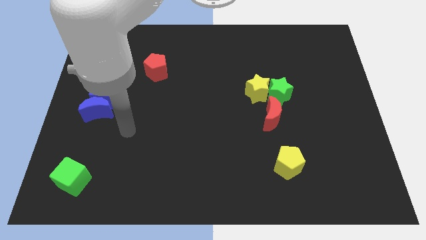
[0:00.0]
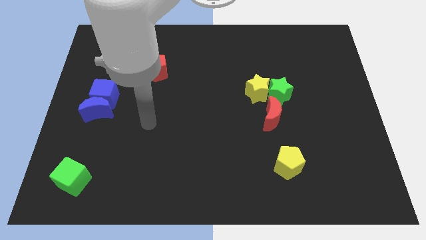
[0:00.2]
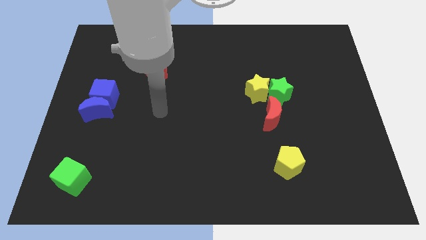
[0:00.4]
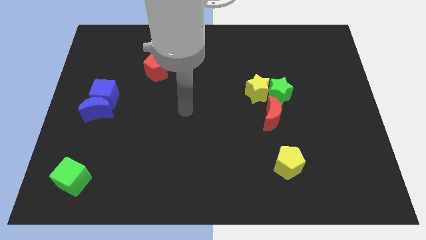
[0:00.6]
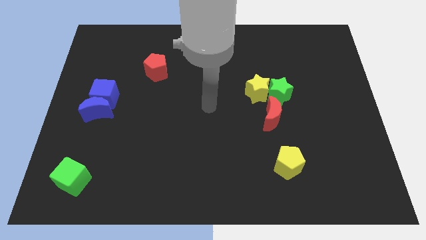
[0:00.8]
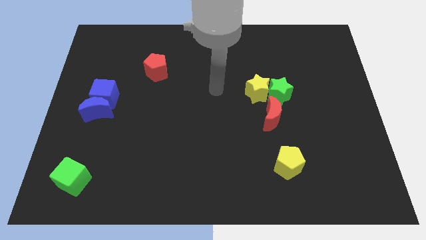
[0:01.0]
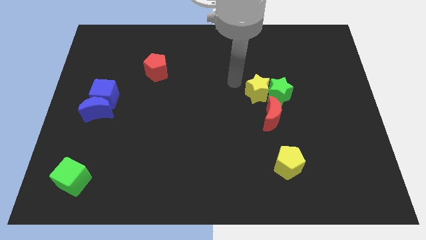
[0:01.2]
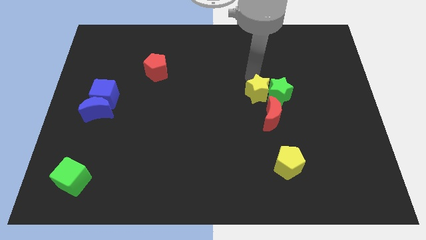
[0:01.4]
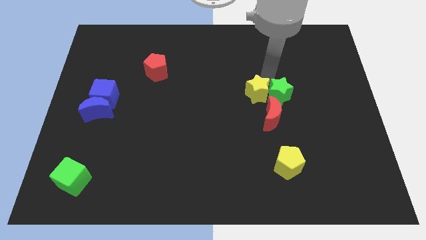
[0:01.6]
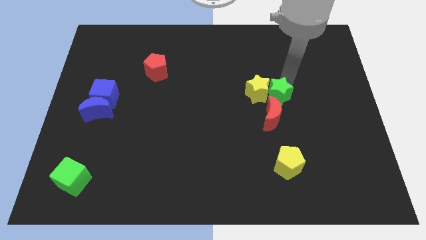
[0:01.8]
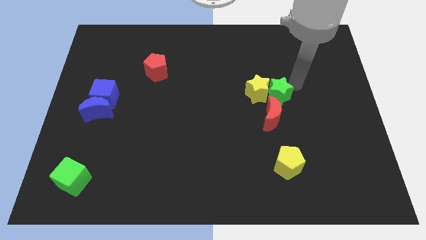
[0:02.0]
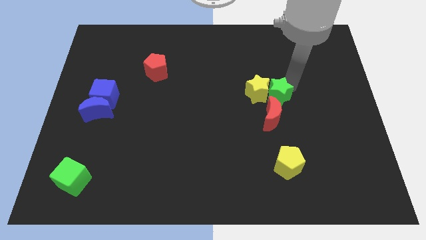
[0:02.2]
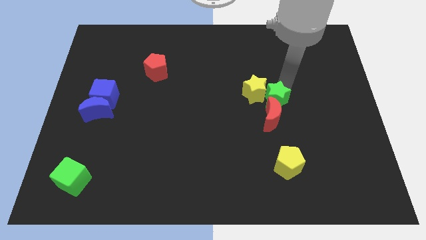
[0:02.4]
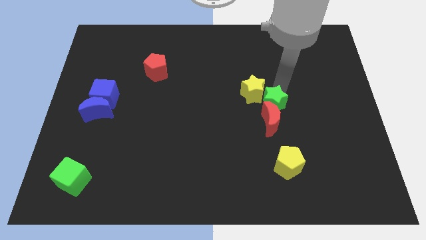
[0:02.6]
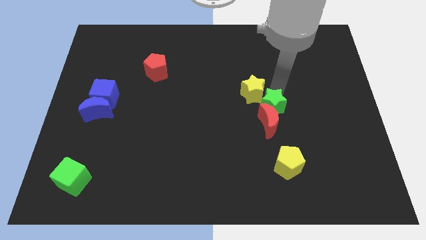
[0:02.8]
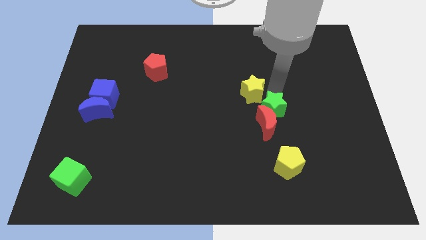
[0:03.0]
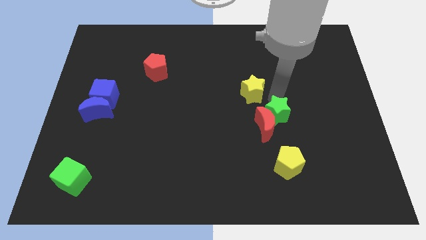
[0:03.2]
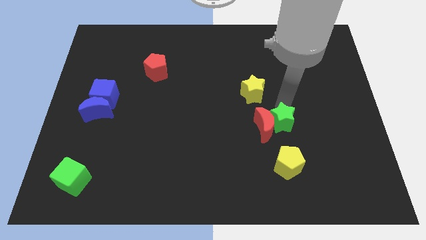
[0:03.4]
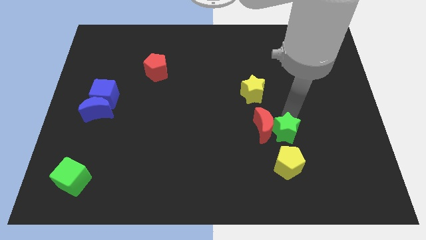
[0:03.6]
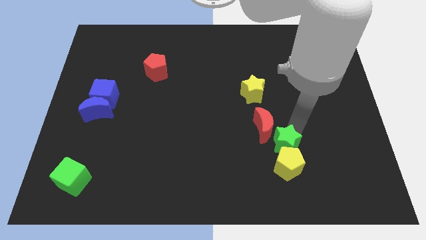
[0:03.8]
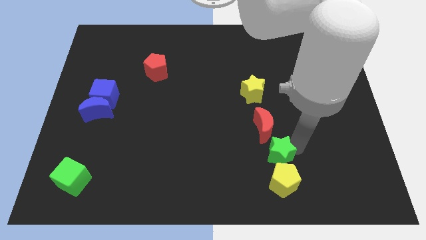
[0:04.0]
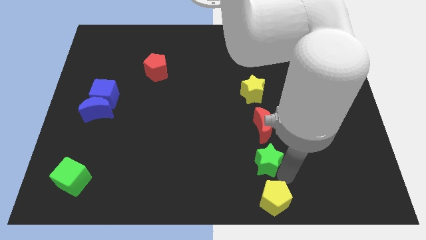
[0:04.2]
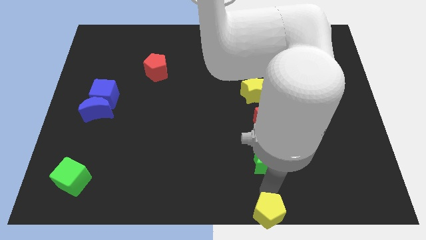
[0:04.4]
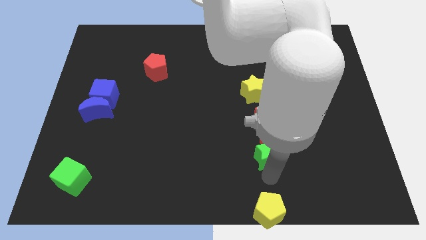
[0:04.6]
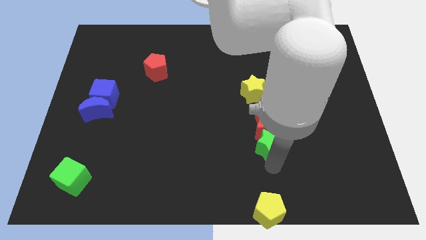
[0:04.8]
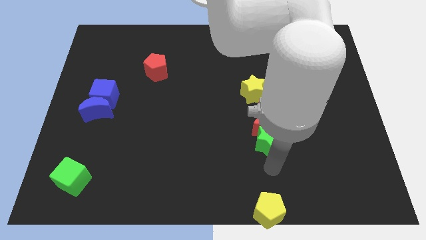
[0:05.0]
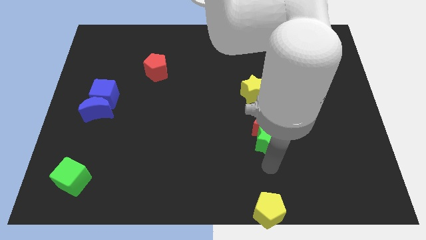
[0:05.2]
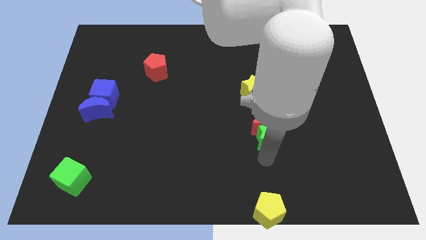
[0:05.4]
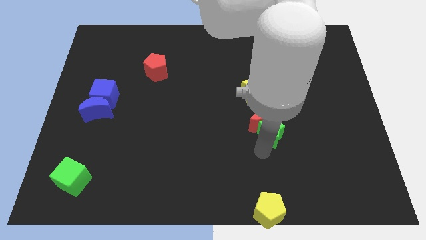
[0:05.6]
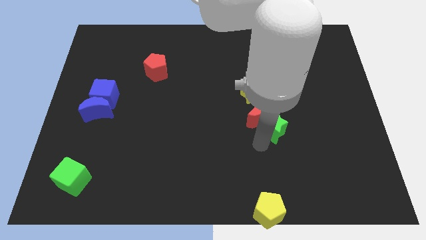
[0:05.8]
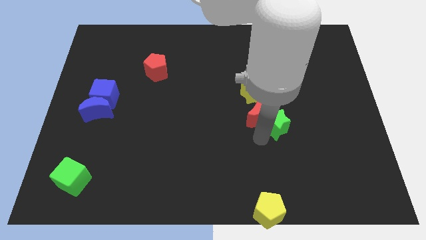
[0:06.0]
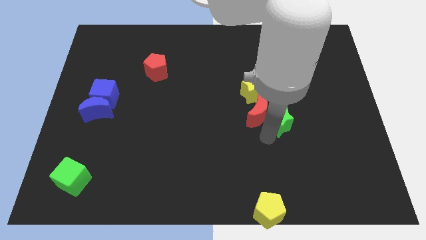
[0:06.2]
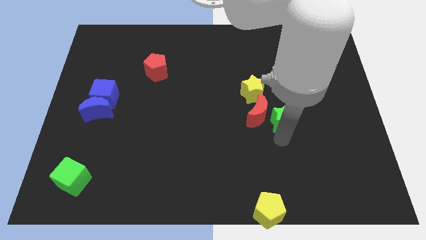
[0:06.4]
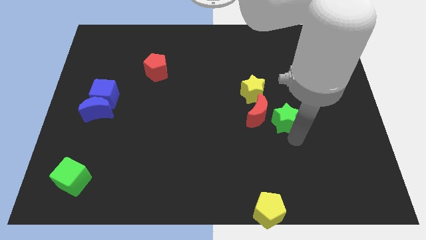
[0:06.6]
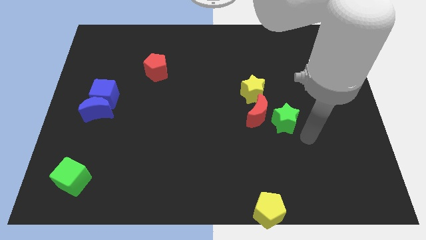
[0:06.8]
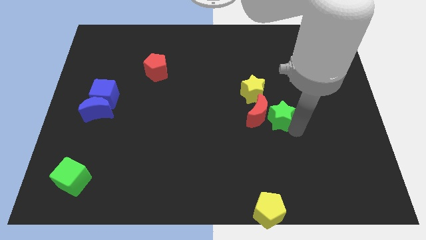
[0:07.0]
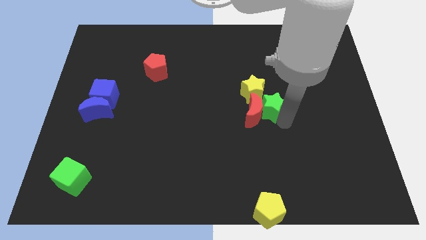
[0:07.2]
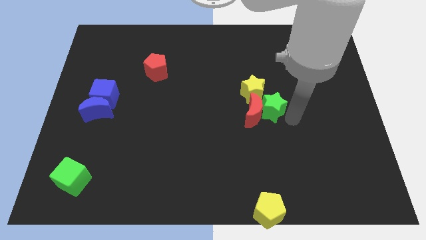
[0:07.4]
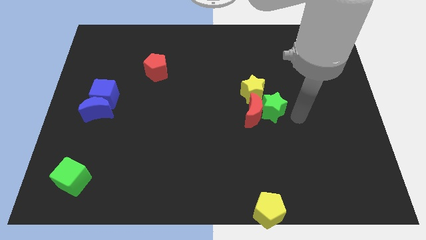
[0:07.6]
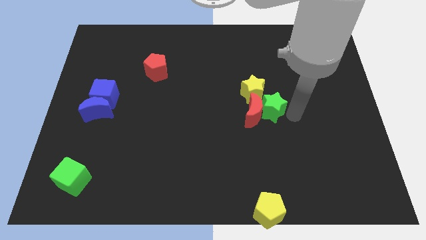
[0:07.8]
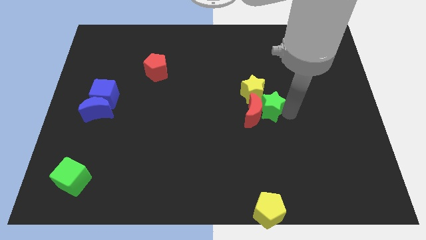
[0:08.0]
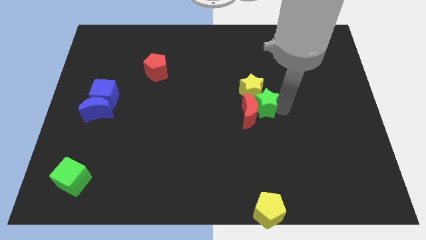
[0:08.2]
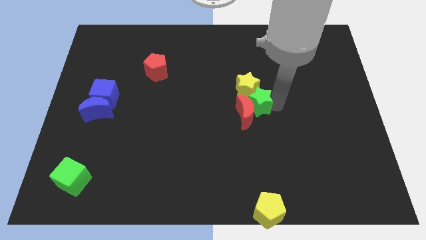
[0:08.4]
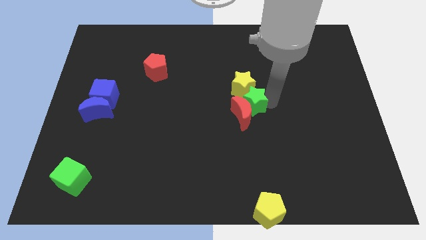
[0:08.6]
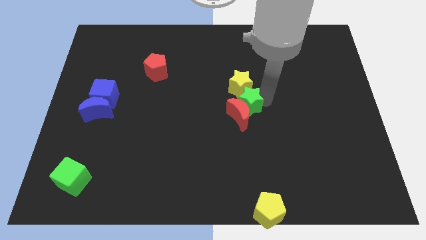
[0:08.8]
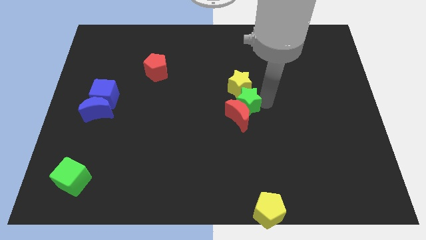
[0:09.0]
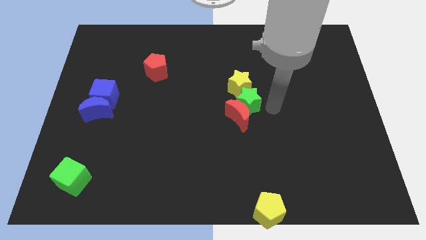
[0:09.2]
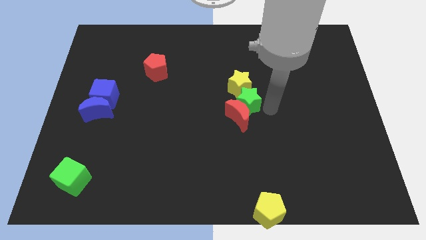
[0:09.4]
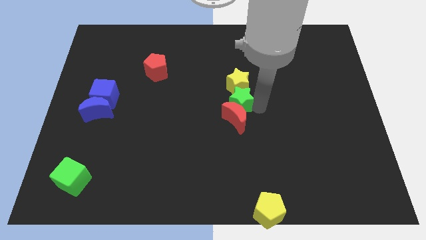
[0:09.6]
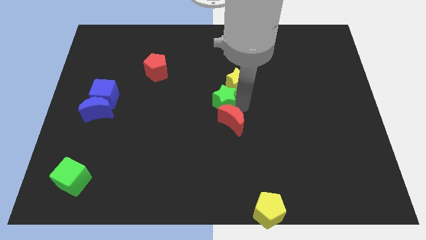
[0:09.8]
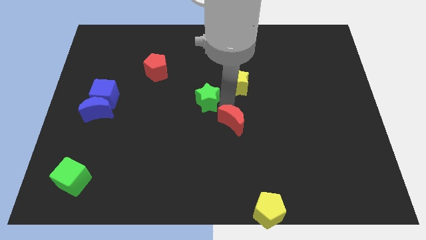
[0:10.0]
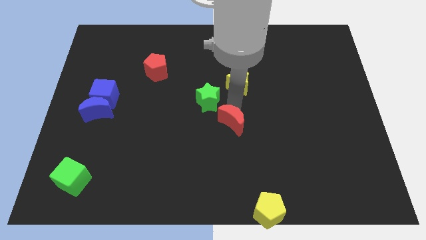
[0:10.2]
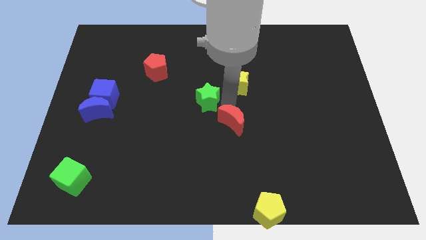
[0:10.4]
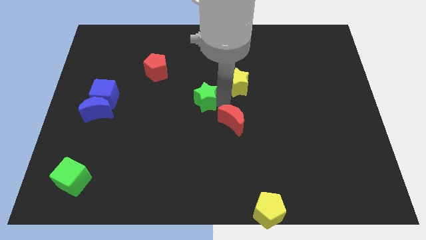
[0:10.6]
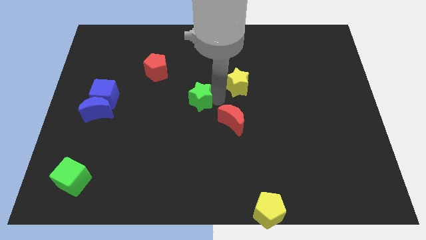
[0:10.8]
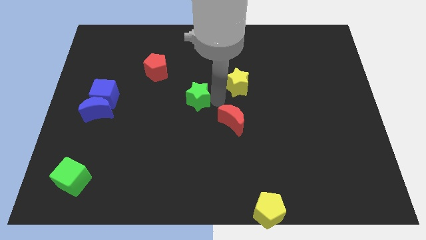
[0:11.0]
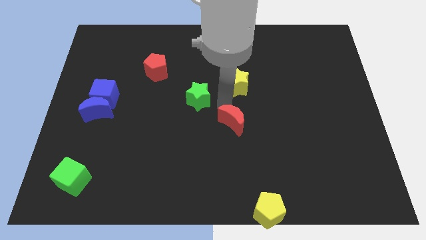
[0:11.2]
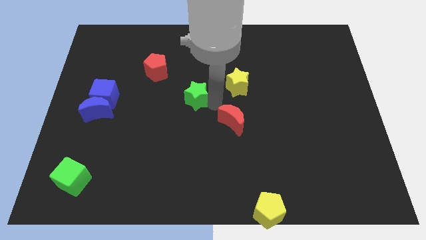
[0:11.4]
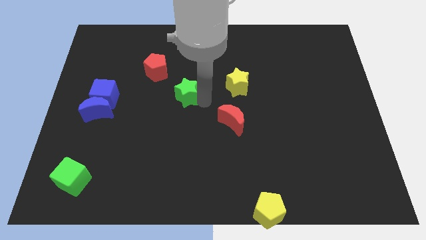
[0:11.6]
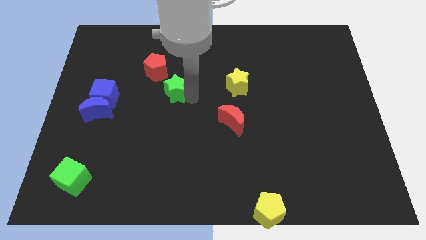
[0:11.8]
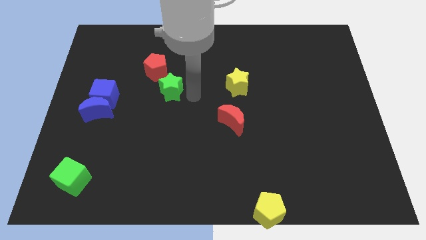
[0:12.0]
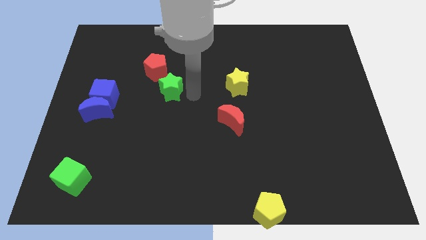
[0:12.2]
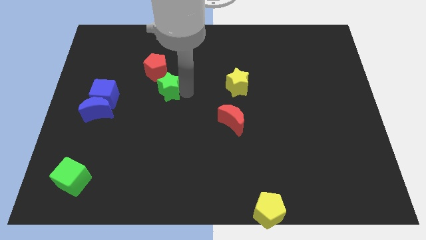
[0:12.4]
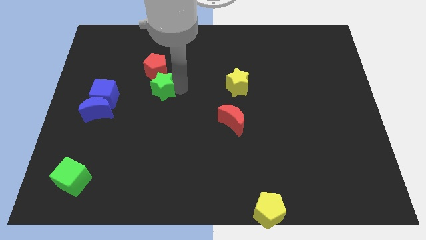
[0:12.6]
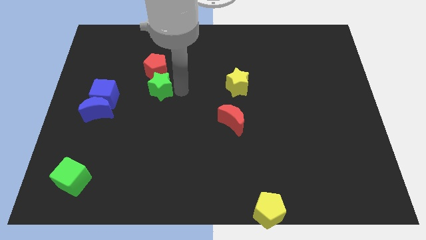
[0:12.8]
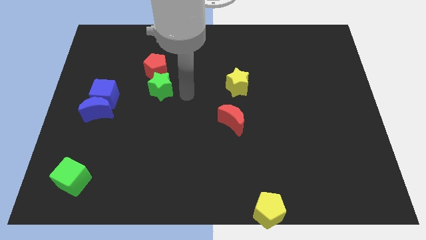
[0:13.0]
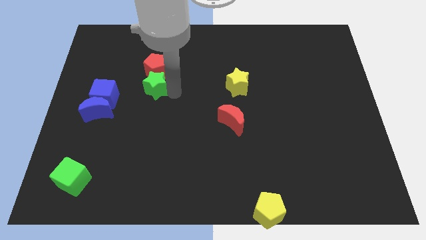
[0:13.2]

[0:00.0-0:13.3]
push the green star to the bottom left side of the red pentagon
